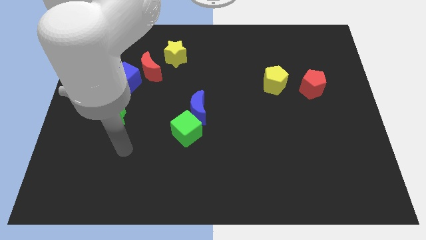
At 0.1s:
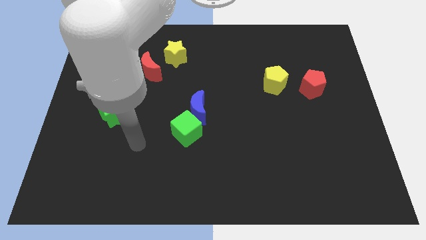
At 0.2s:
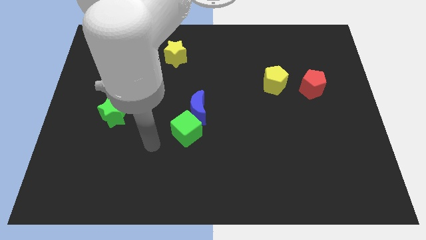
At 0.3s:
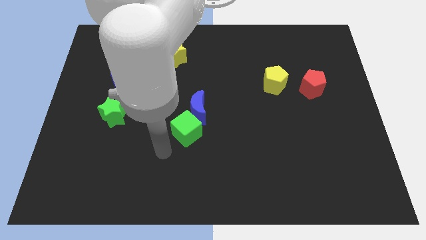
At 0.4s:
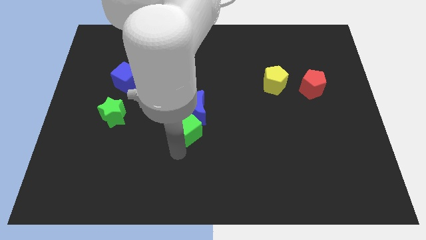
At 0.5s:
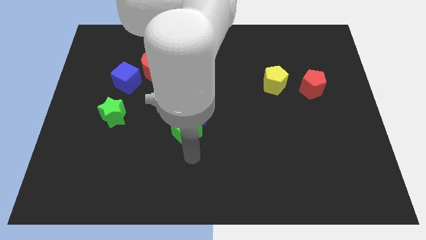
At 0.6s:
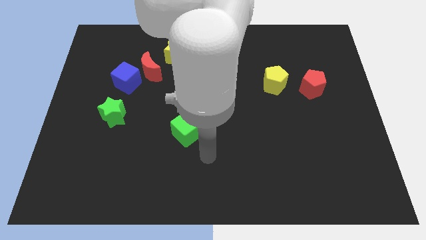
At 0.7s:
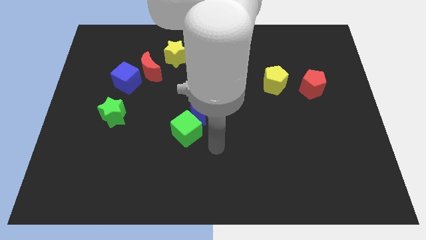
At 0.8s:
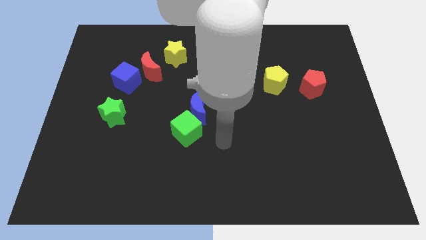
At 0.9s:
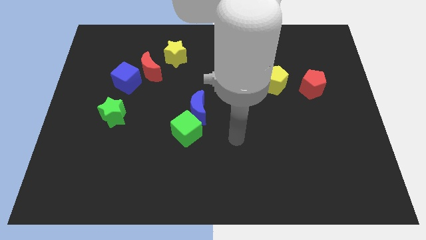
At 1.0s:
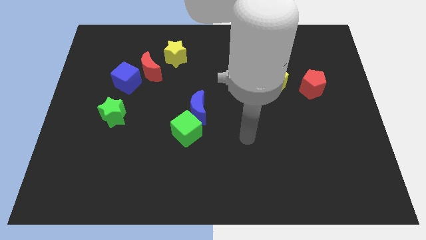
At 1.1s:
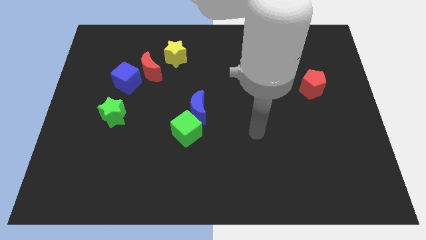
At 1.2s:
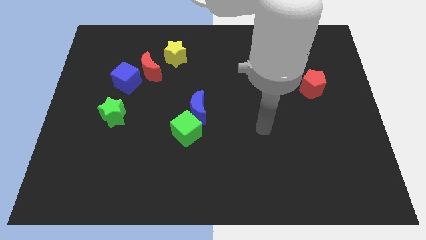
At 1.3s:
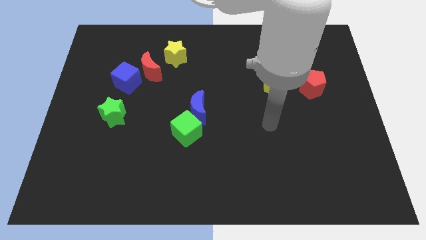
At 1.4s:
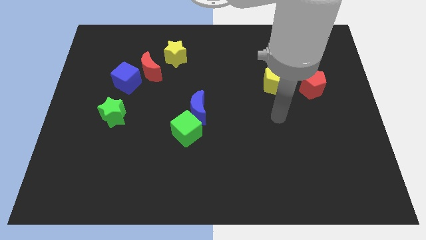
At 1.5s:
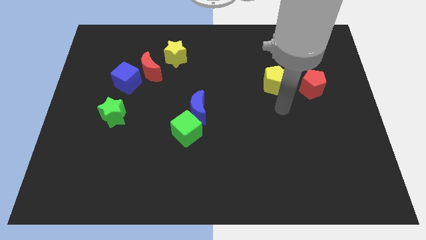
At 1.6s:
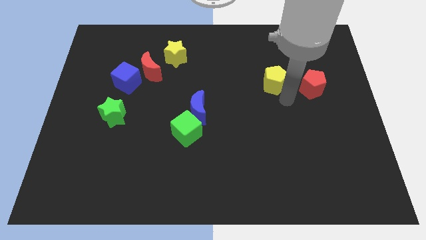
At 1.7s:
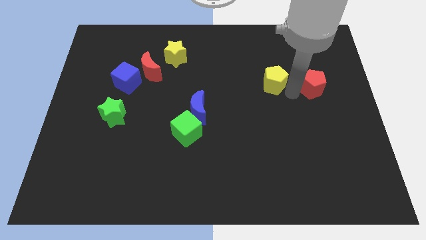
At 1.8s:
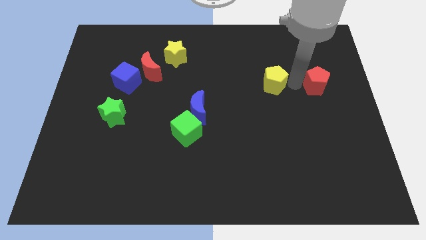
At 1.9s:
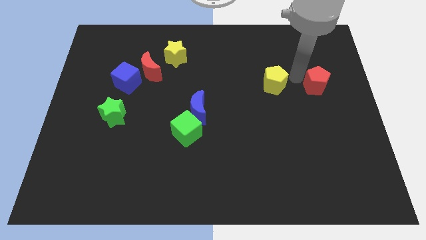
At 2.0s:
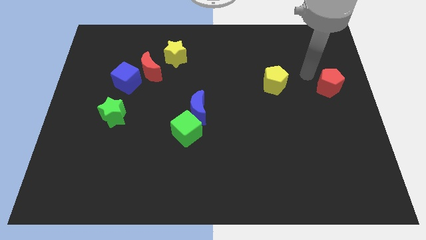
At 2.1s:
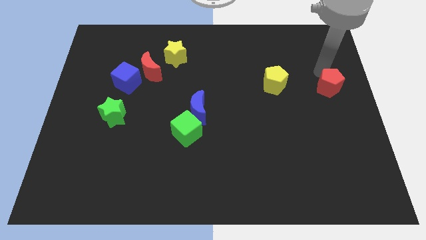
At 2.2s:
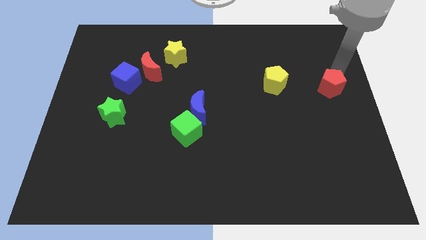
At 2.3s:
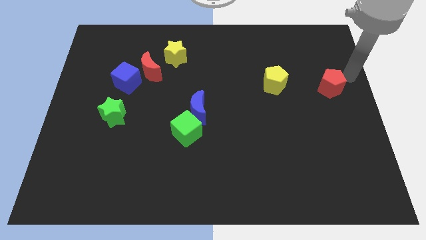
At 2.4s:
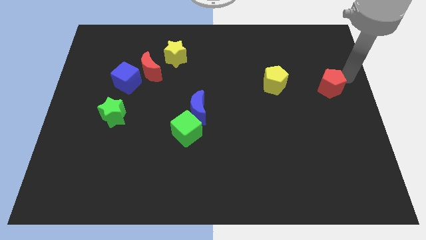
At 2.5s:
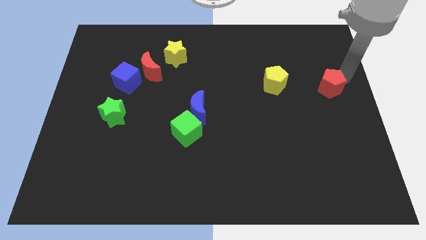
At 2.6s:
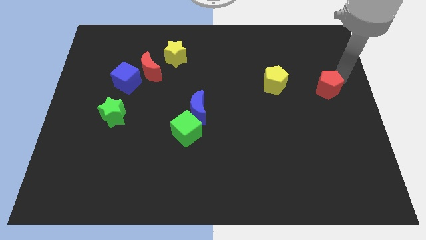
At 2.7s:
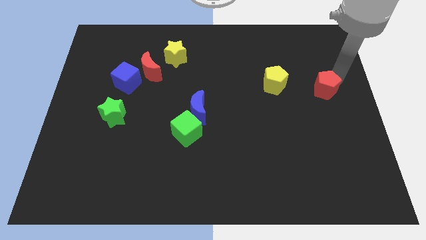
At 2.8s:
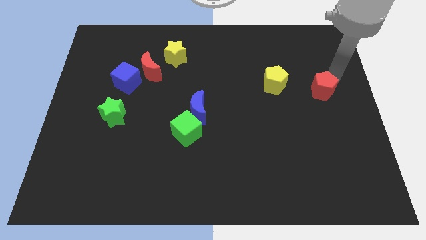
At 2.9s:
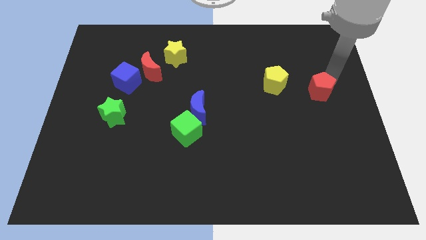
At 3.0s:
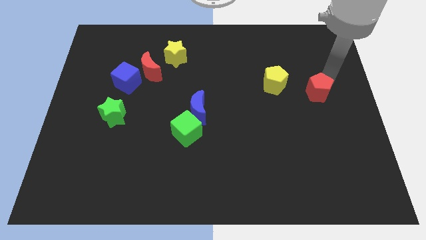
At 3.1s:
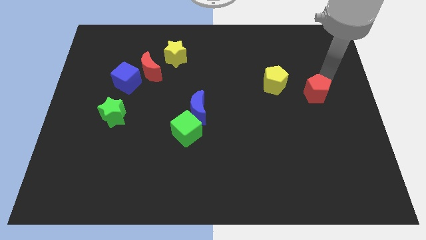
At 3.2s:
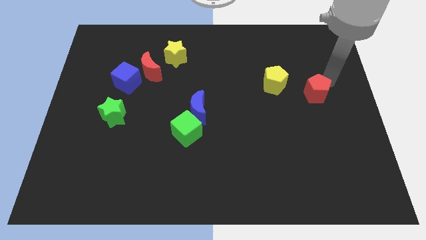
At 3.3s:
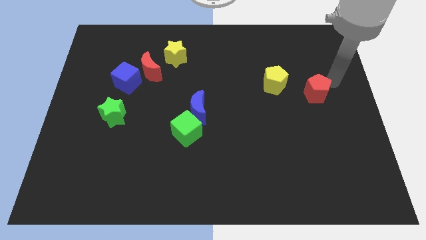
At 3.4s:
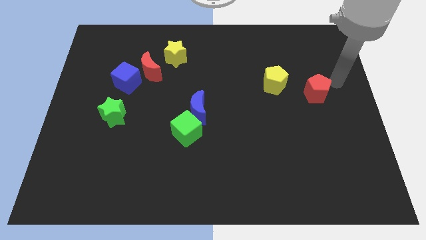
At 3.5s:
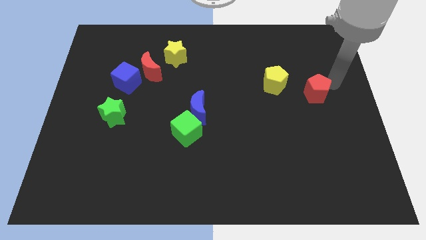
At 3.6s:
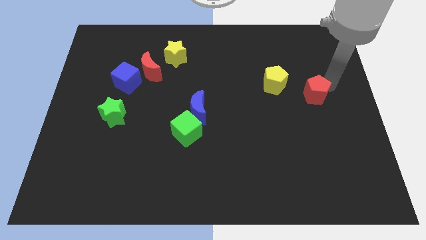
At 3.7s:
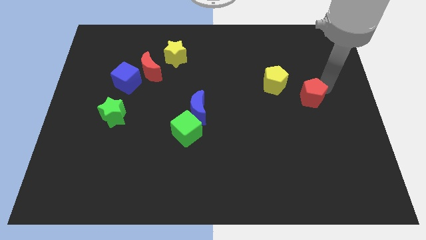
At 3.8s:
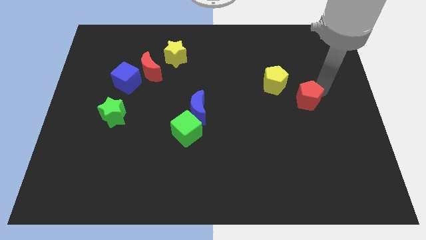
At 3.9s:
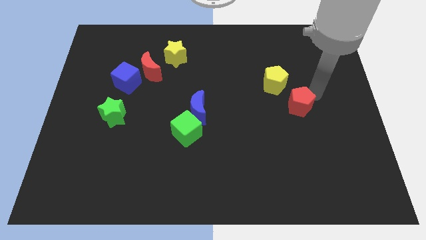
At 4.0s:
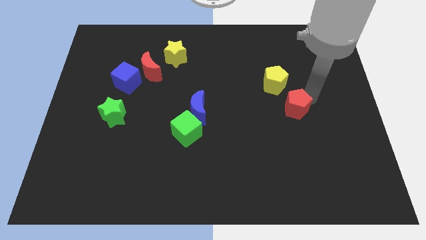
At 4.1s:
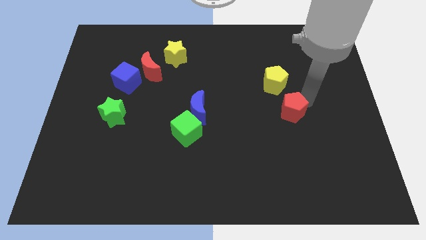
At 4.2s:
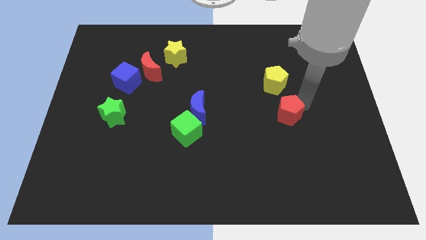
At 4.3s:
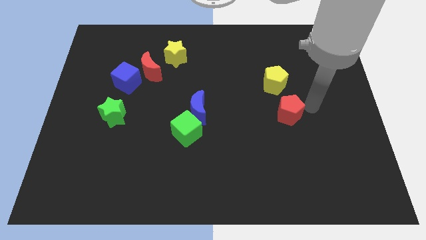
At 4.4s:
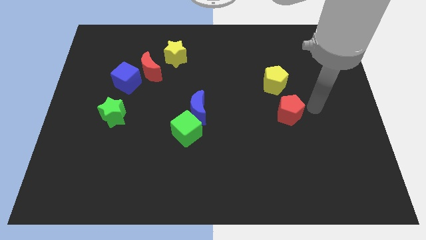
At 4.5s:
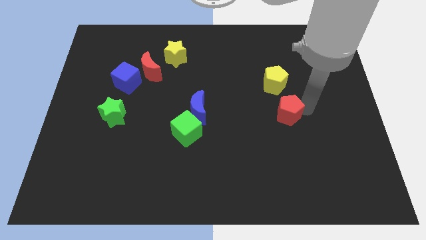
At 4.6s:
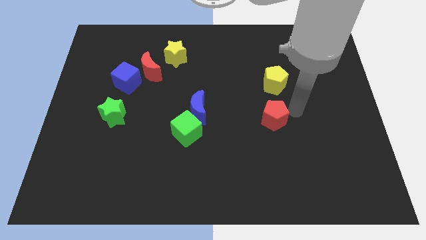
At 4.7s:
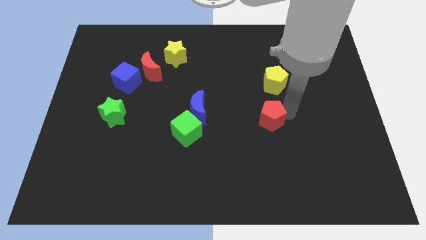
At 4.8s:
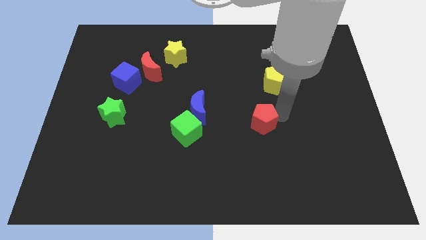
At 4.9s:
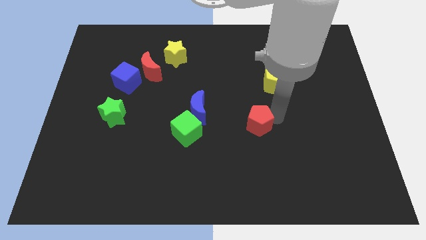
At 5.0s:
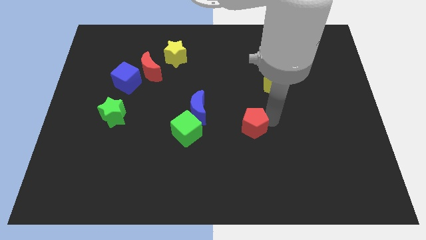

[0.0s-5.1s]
put the red pentagon to the right of the green cube

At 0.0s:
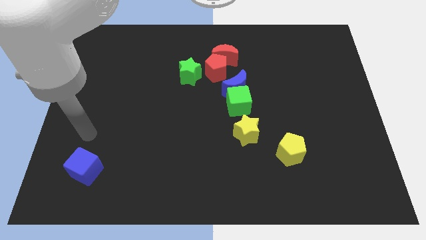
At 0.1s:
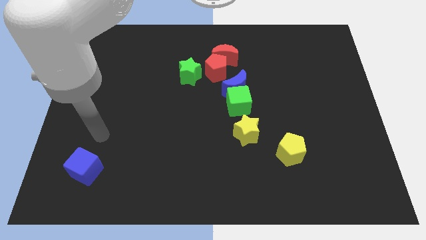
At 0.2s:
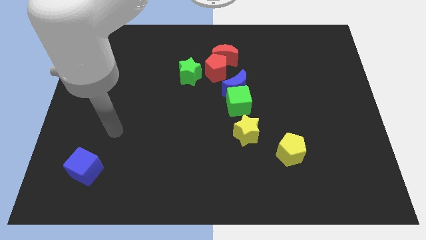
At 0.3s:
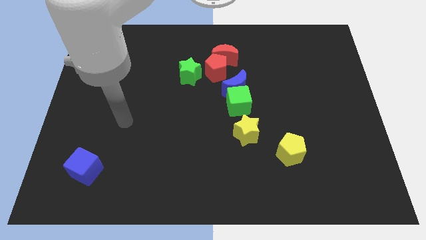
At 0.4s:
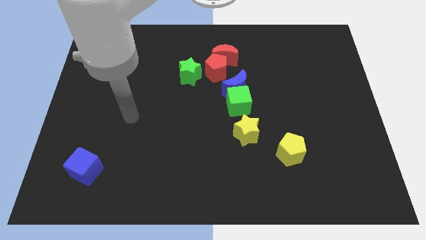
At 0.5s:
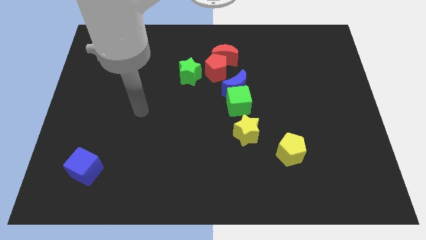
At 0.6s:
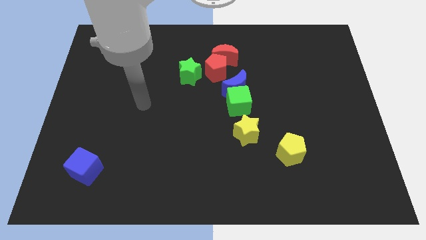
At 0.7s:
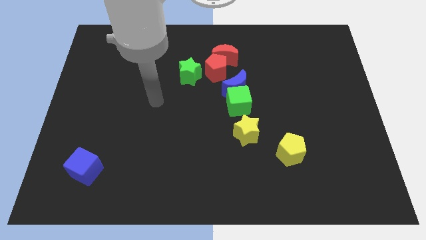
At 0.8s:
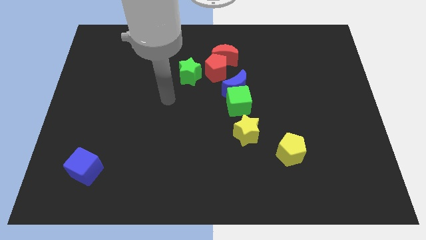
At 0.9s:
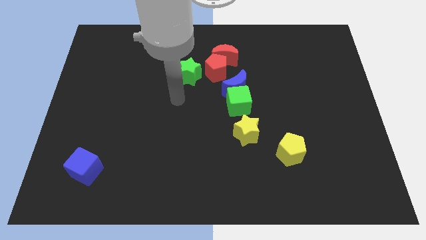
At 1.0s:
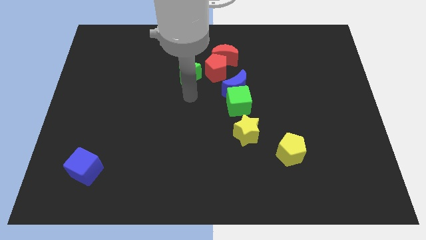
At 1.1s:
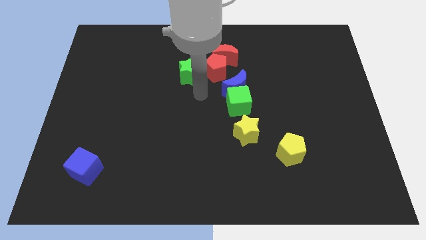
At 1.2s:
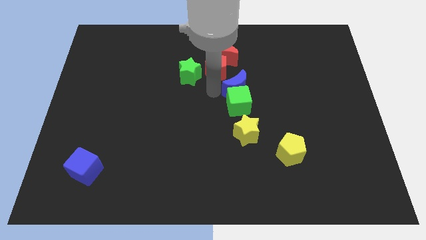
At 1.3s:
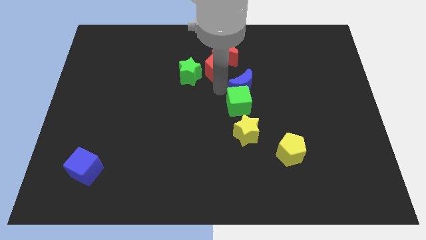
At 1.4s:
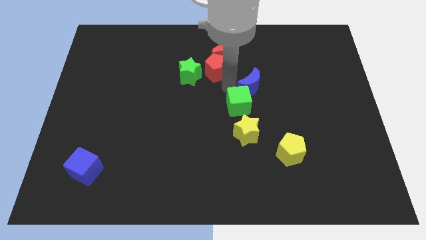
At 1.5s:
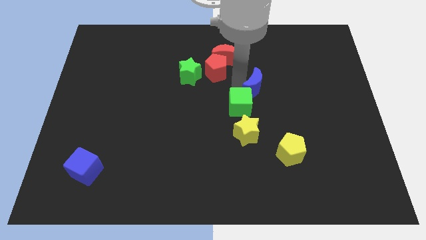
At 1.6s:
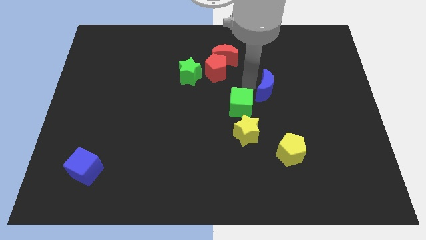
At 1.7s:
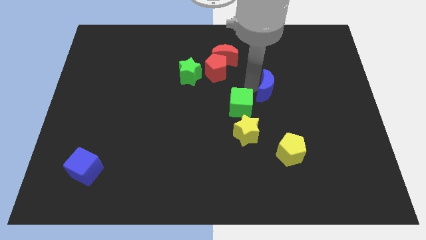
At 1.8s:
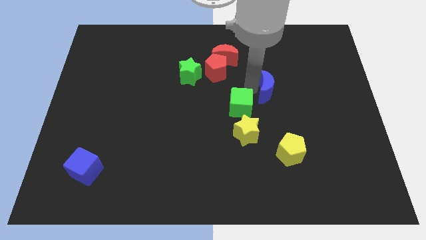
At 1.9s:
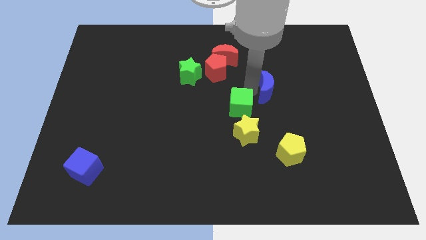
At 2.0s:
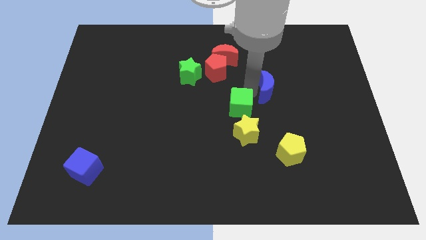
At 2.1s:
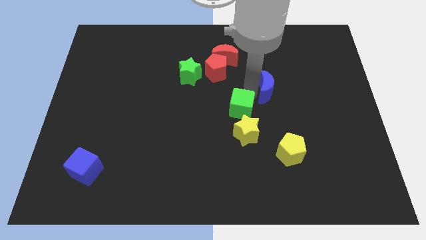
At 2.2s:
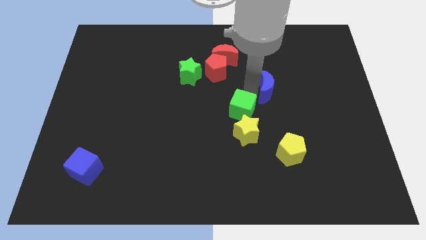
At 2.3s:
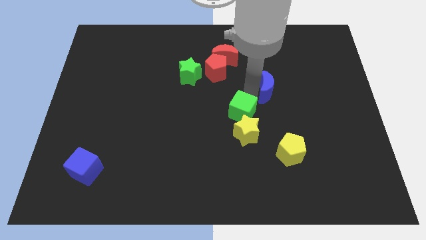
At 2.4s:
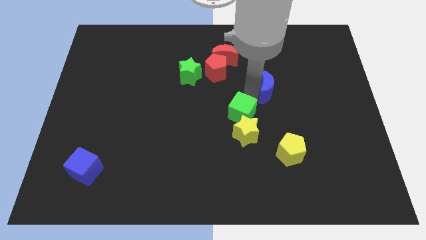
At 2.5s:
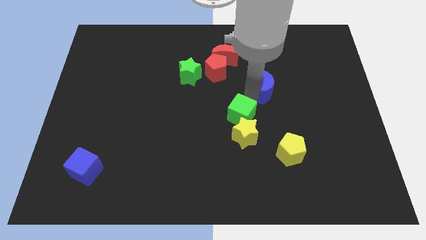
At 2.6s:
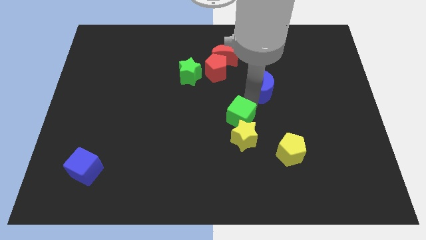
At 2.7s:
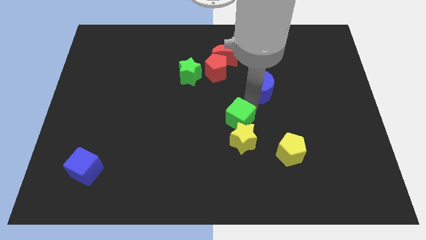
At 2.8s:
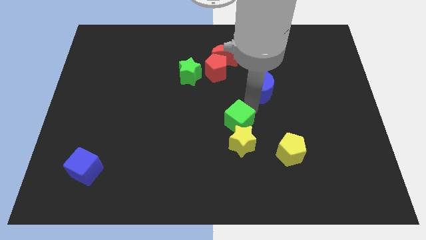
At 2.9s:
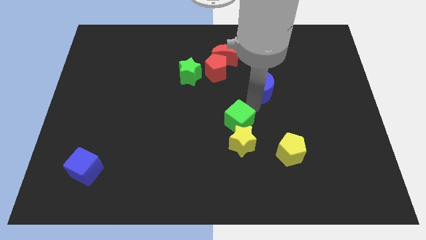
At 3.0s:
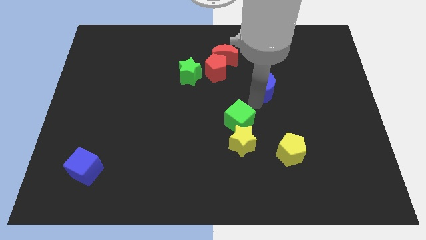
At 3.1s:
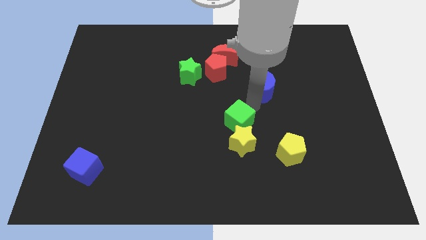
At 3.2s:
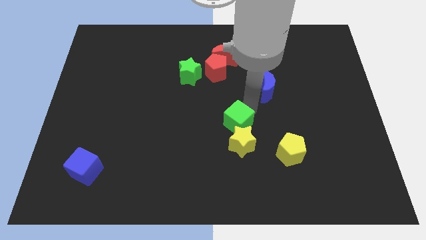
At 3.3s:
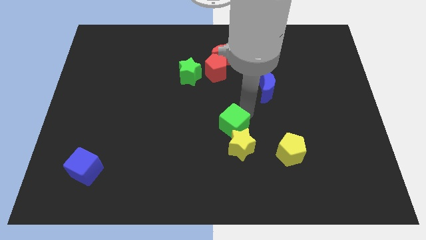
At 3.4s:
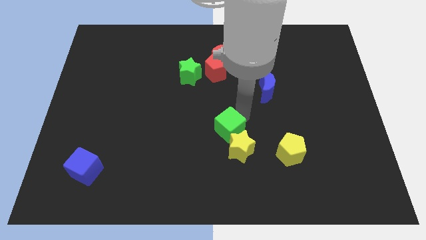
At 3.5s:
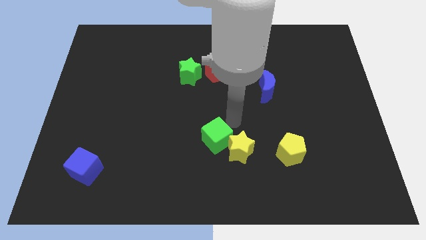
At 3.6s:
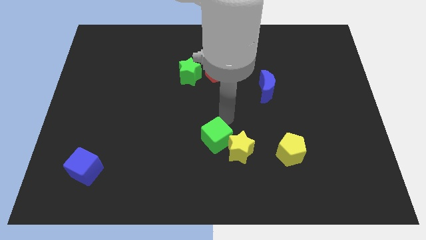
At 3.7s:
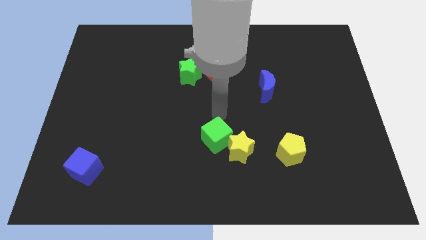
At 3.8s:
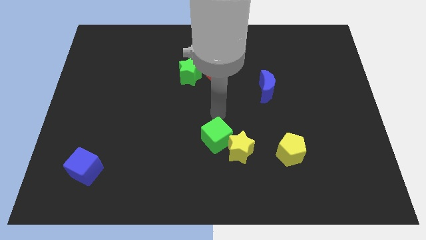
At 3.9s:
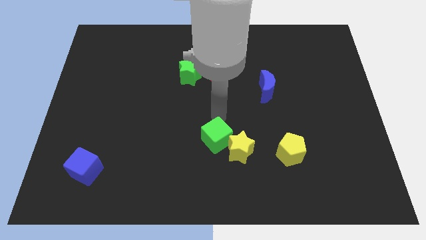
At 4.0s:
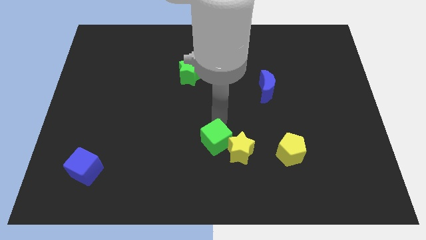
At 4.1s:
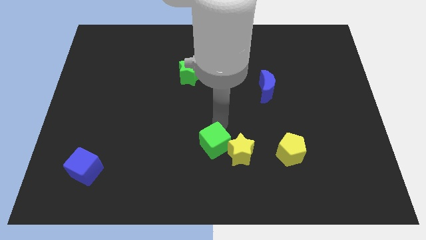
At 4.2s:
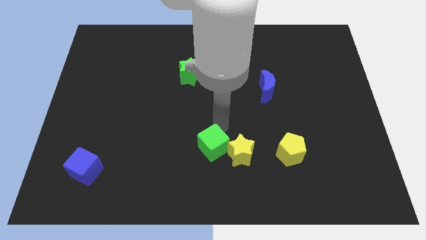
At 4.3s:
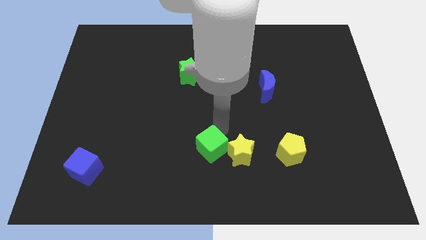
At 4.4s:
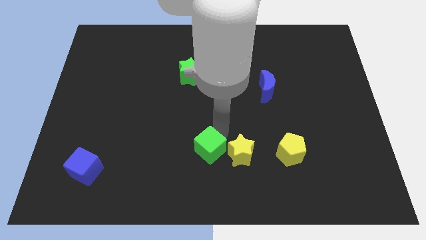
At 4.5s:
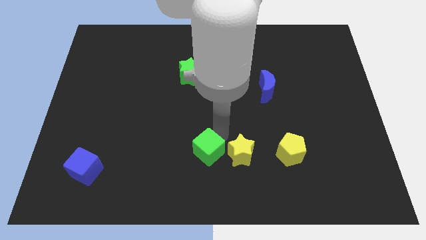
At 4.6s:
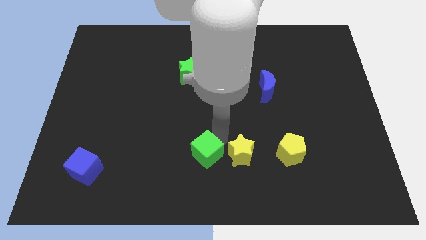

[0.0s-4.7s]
push the green cube to the bottom left of the yellow star
